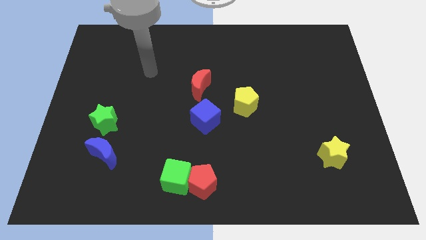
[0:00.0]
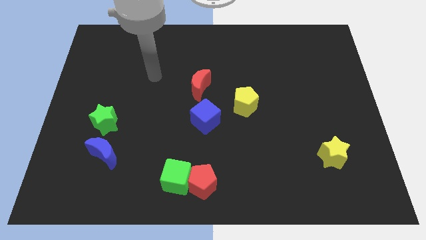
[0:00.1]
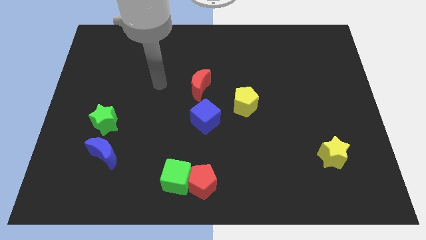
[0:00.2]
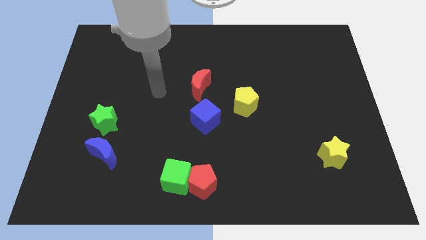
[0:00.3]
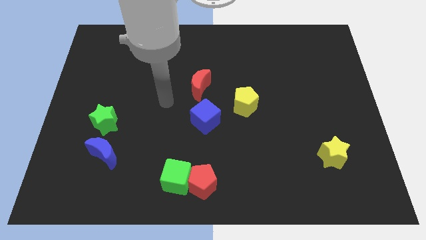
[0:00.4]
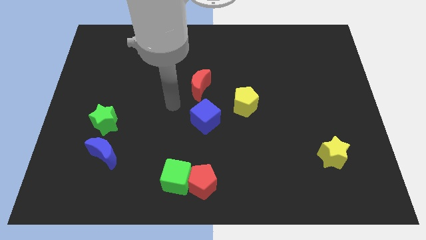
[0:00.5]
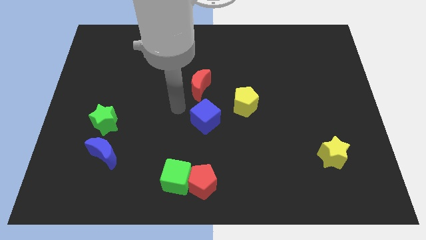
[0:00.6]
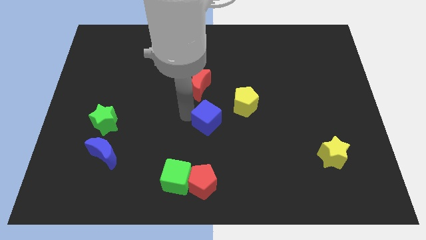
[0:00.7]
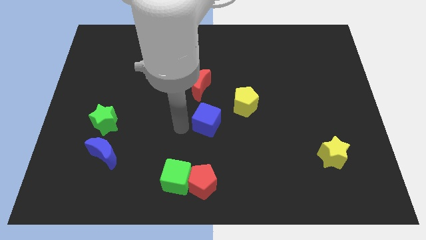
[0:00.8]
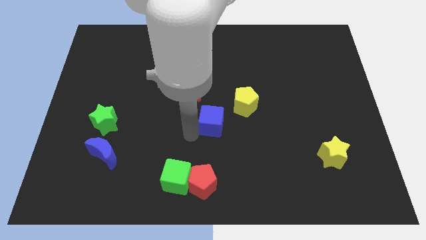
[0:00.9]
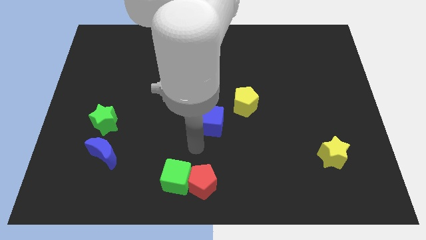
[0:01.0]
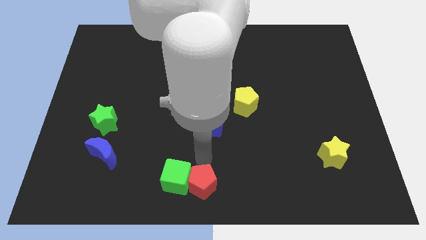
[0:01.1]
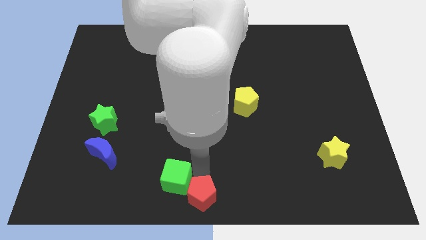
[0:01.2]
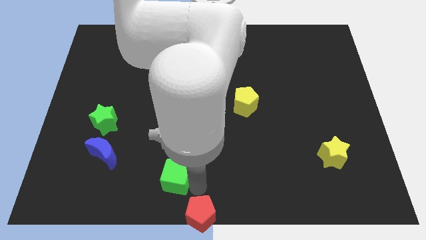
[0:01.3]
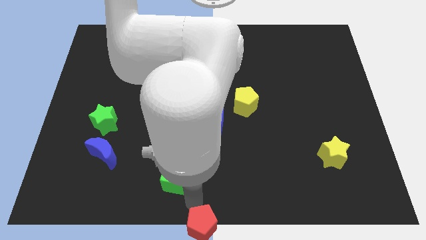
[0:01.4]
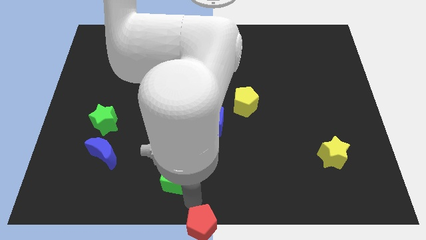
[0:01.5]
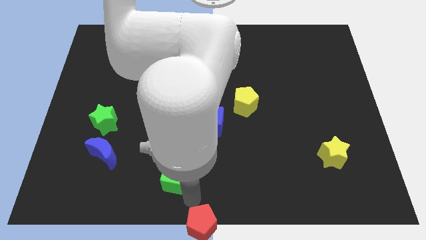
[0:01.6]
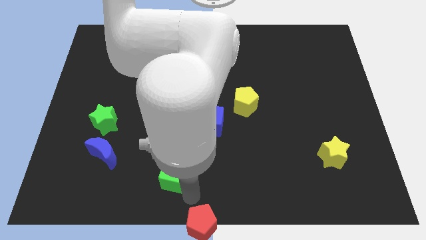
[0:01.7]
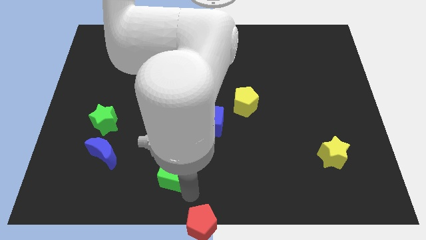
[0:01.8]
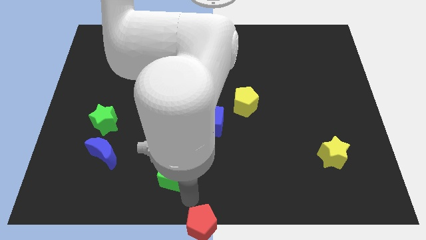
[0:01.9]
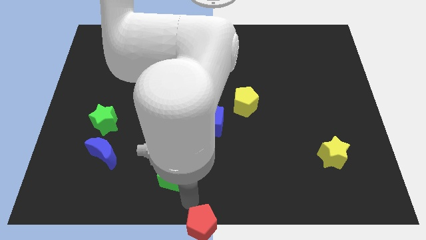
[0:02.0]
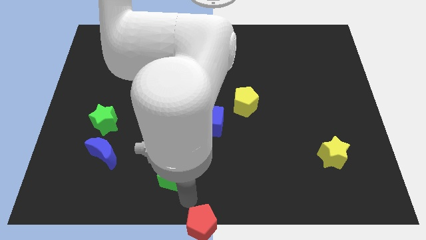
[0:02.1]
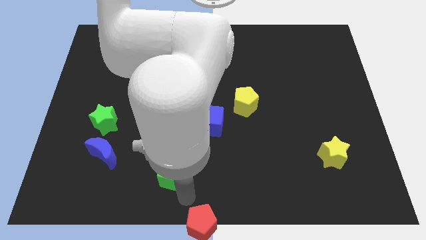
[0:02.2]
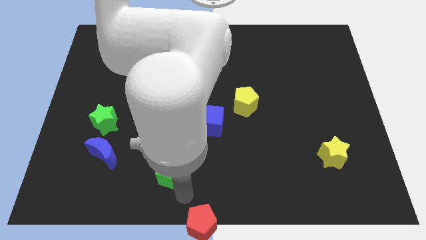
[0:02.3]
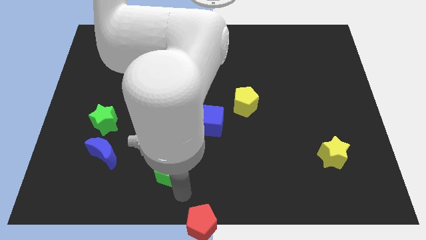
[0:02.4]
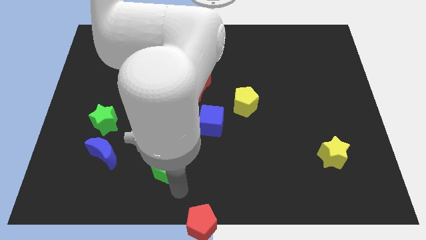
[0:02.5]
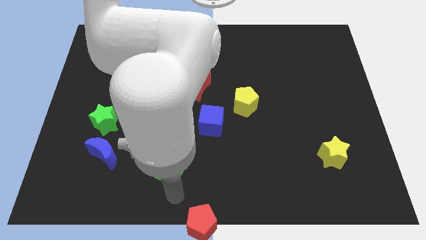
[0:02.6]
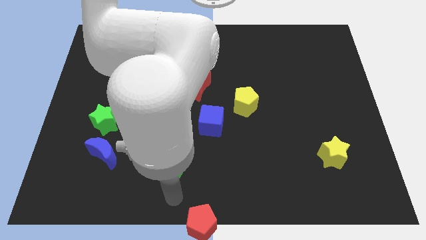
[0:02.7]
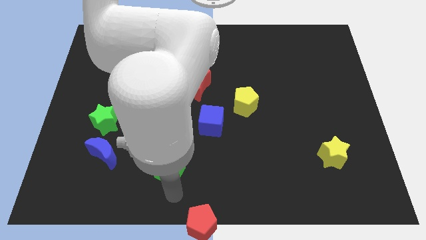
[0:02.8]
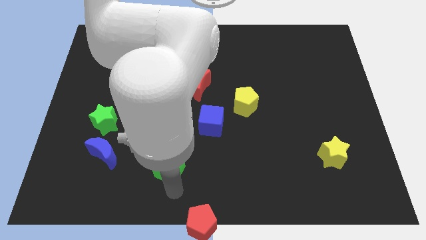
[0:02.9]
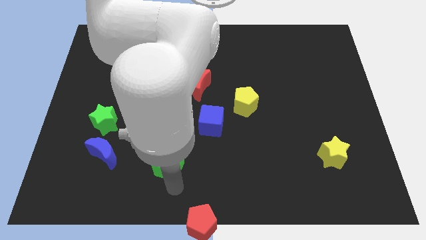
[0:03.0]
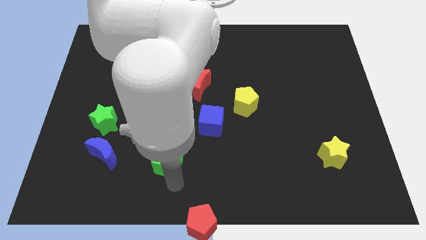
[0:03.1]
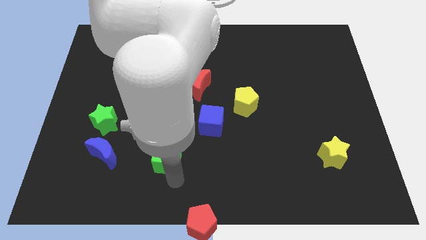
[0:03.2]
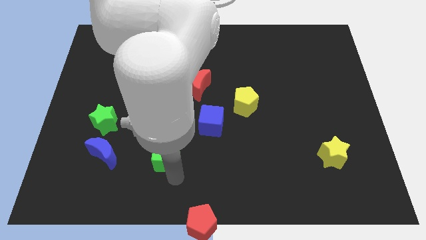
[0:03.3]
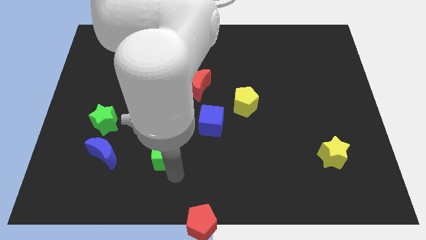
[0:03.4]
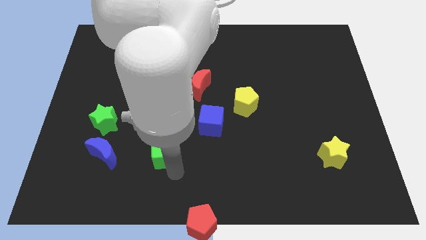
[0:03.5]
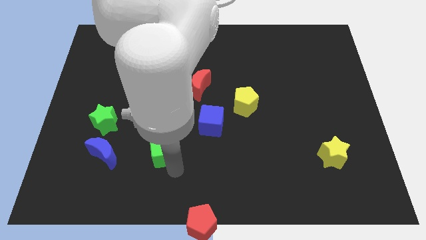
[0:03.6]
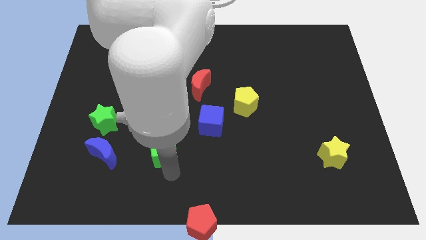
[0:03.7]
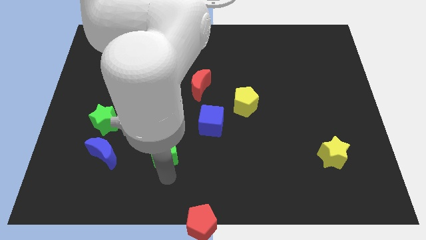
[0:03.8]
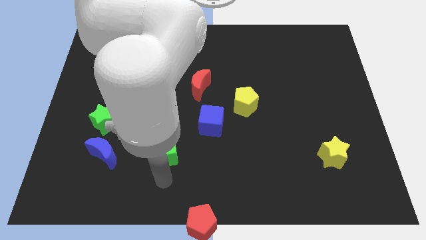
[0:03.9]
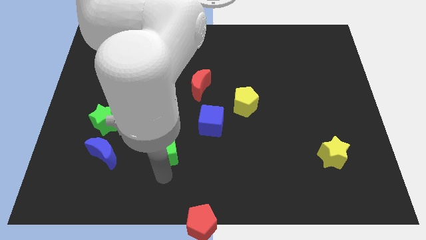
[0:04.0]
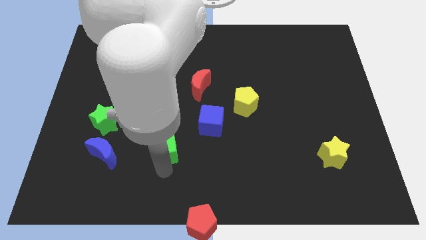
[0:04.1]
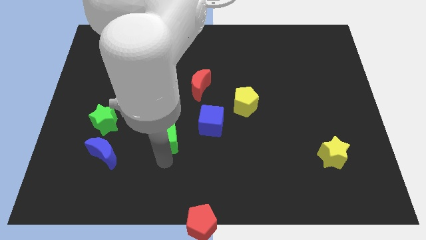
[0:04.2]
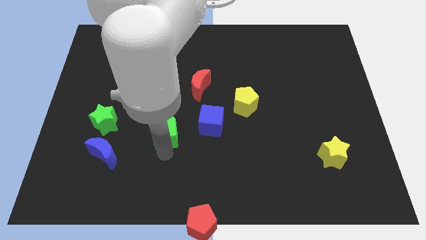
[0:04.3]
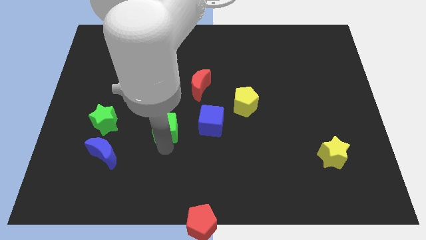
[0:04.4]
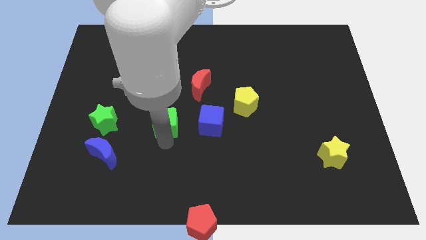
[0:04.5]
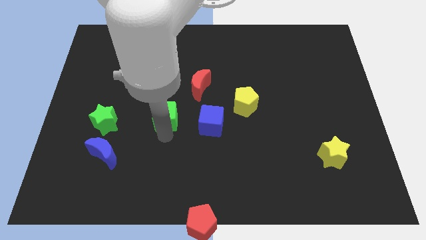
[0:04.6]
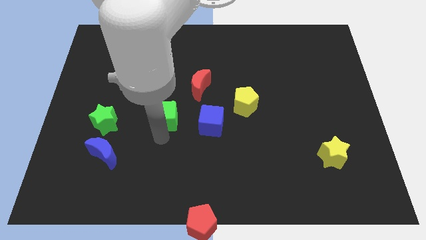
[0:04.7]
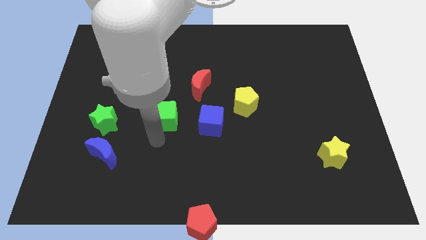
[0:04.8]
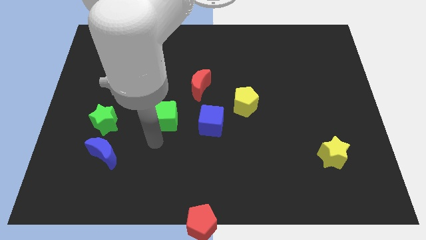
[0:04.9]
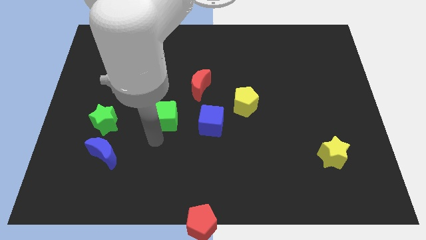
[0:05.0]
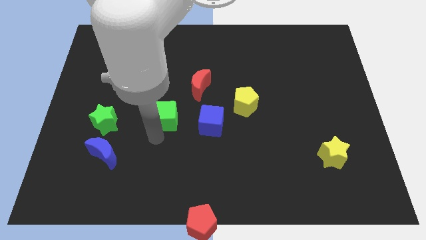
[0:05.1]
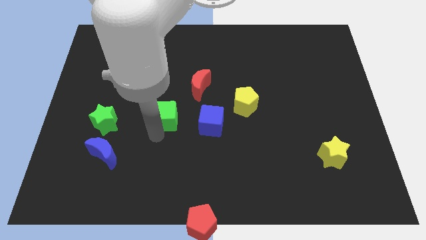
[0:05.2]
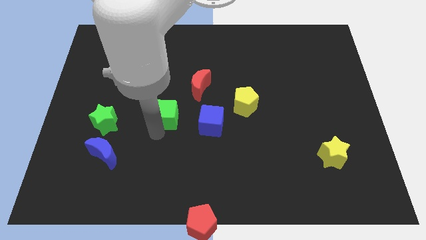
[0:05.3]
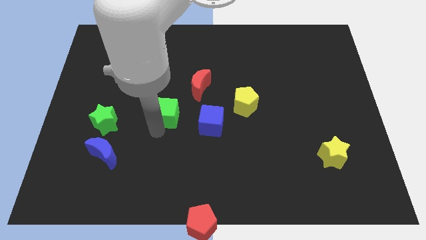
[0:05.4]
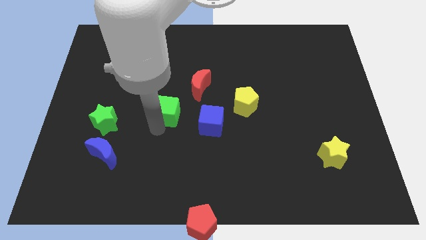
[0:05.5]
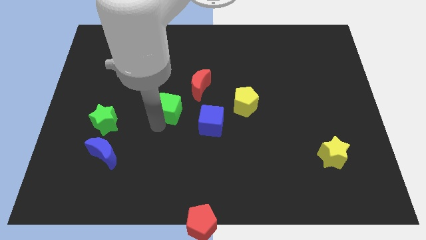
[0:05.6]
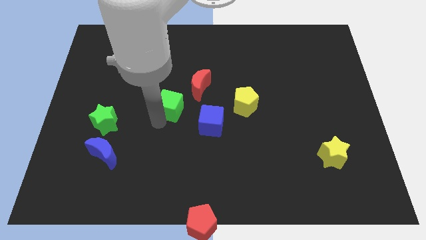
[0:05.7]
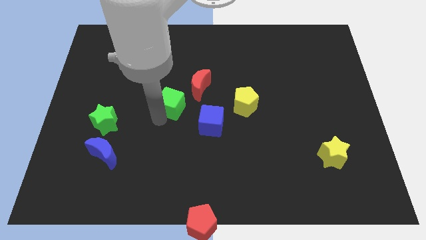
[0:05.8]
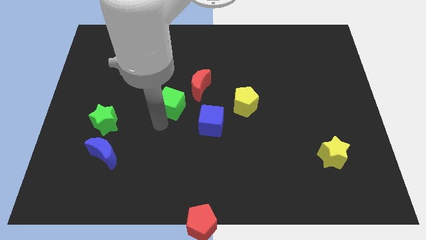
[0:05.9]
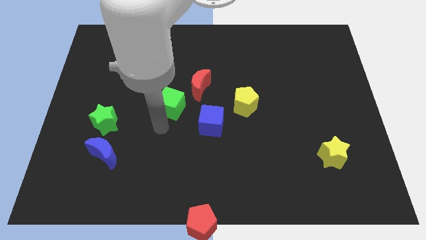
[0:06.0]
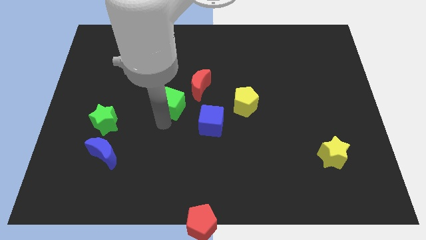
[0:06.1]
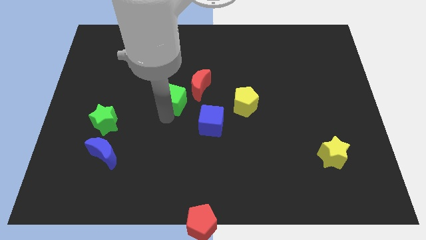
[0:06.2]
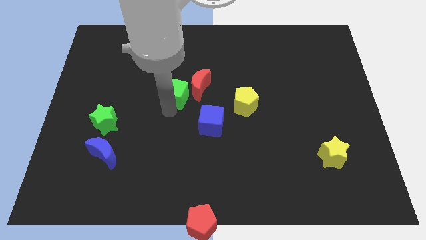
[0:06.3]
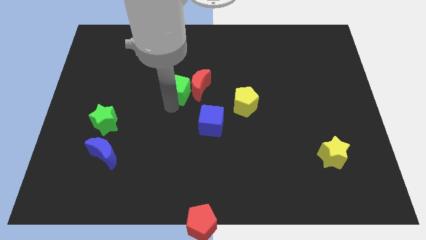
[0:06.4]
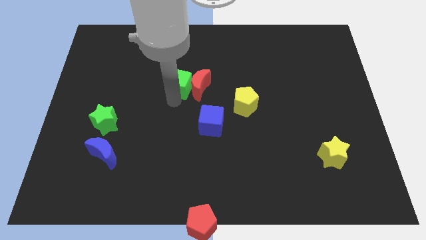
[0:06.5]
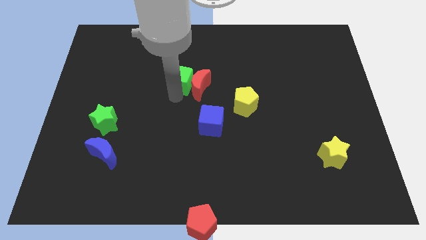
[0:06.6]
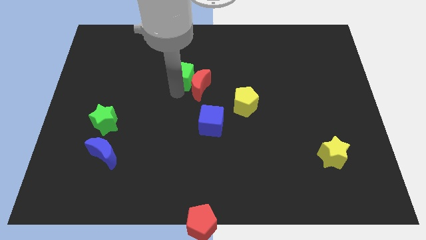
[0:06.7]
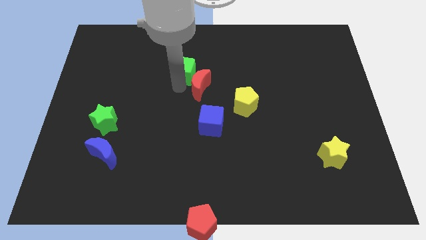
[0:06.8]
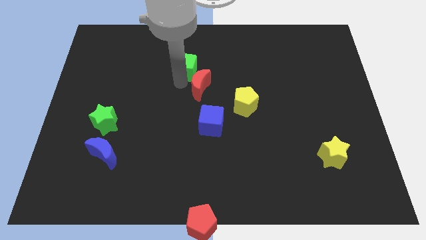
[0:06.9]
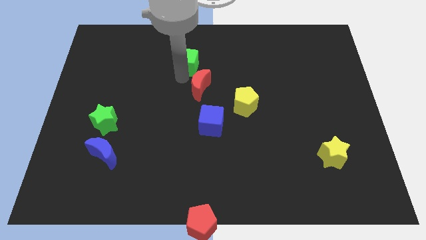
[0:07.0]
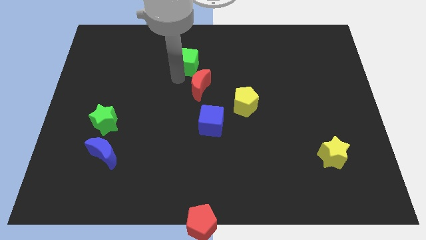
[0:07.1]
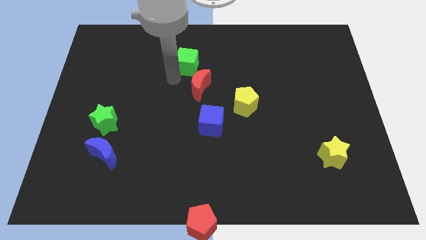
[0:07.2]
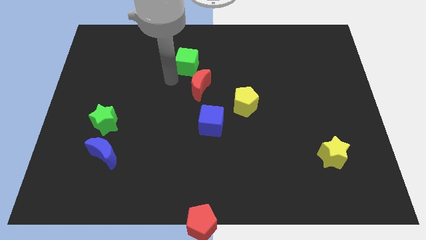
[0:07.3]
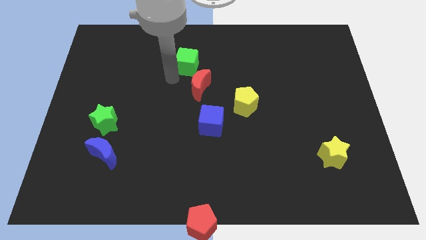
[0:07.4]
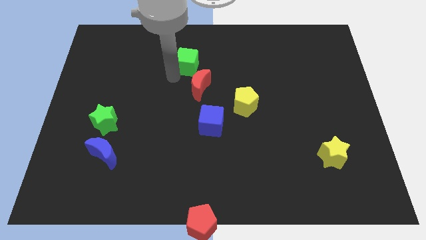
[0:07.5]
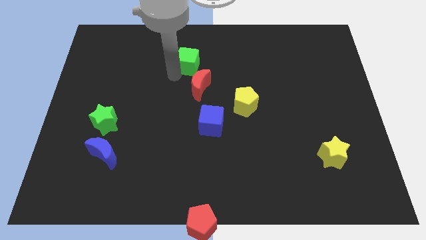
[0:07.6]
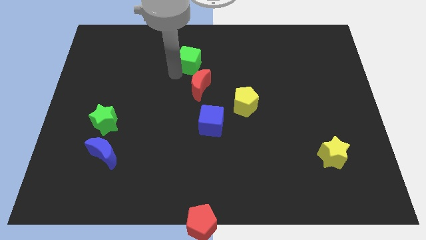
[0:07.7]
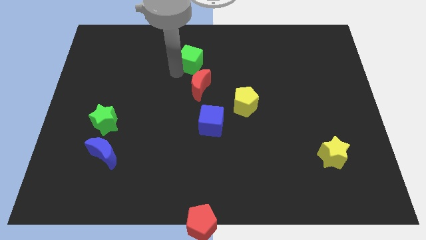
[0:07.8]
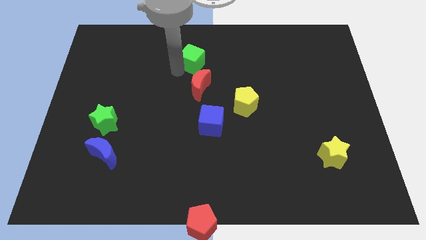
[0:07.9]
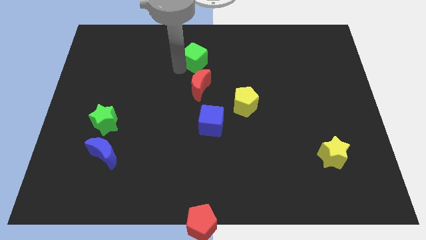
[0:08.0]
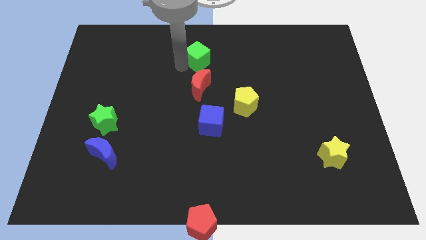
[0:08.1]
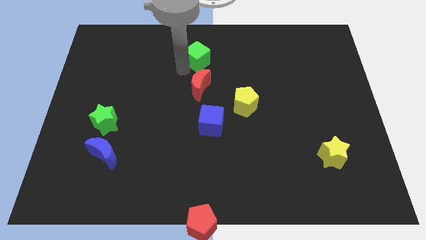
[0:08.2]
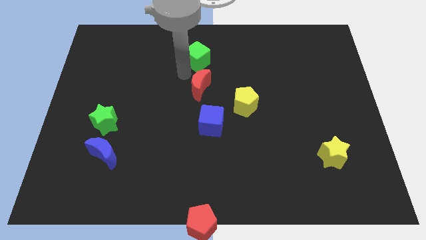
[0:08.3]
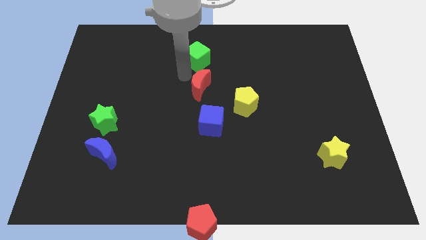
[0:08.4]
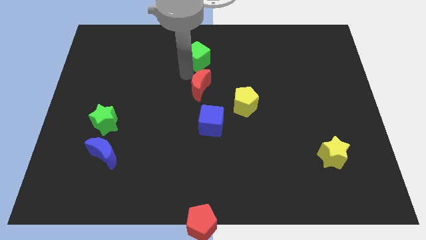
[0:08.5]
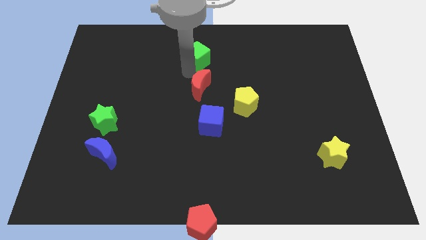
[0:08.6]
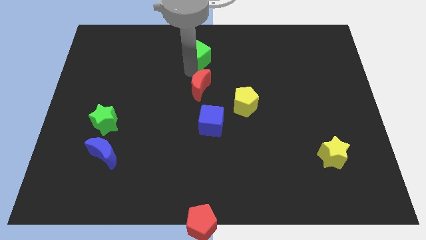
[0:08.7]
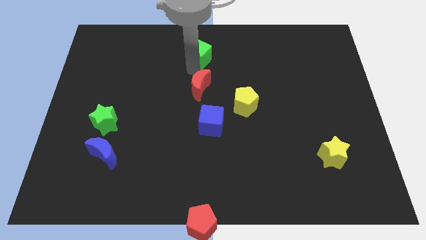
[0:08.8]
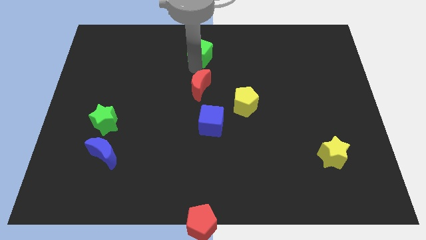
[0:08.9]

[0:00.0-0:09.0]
move the green cube to the top side
